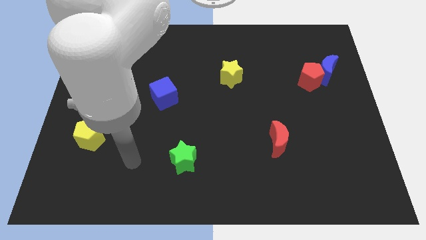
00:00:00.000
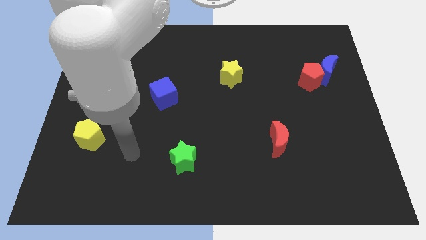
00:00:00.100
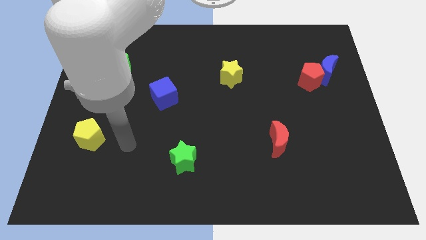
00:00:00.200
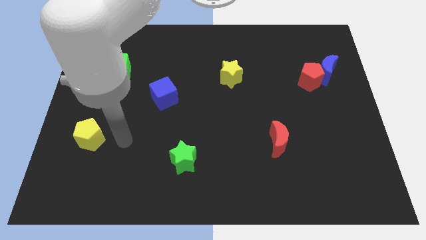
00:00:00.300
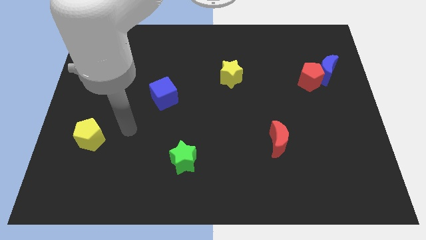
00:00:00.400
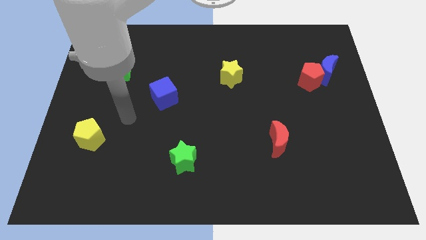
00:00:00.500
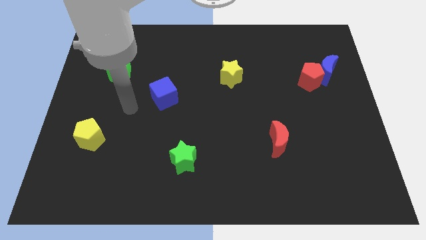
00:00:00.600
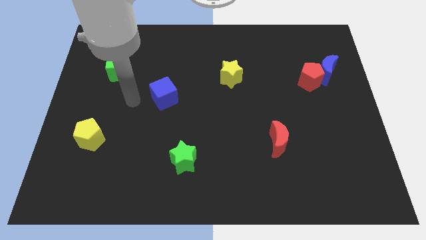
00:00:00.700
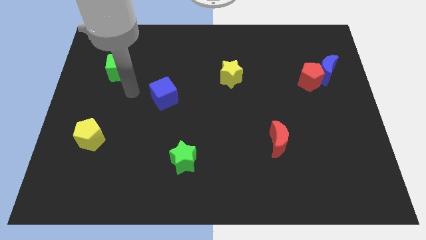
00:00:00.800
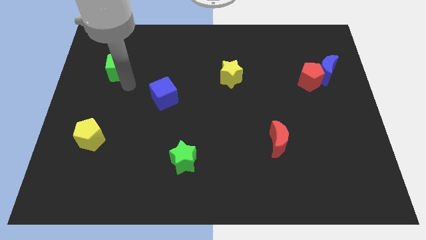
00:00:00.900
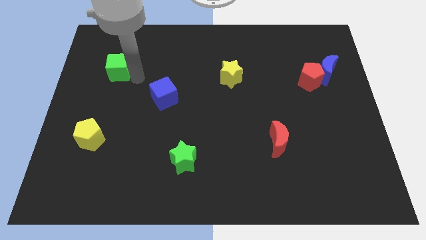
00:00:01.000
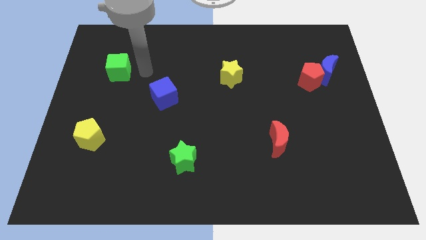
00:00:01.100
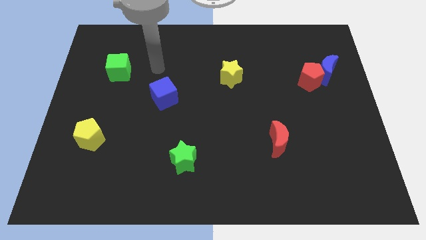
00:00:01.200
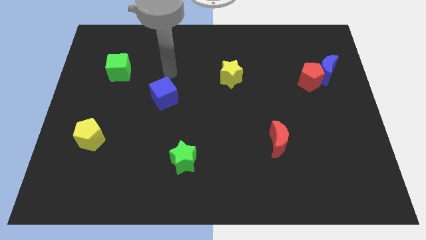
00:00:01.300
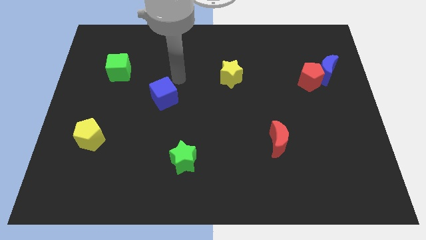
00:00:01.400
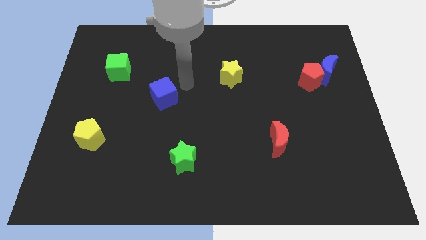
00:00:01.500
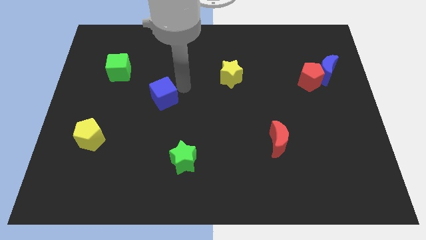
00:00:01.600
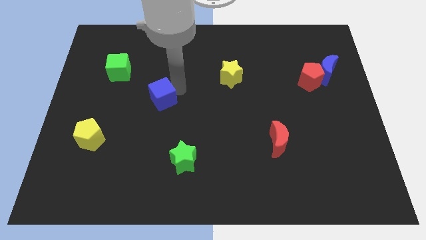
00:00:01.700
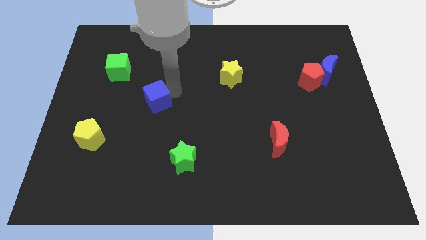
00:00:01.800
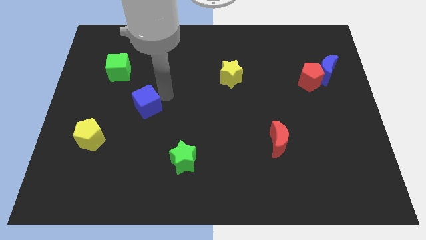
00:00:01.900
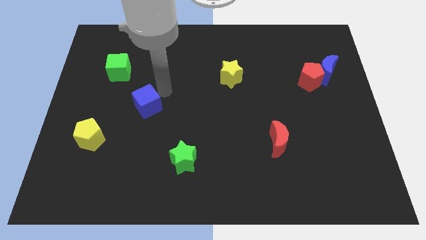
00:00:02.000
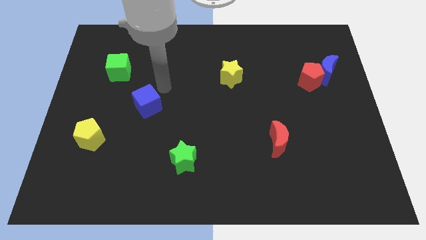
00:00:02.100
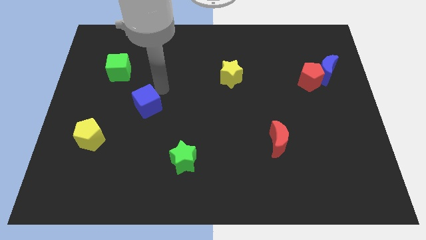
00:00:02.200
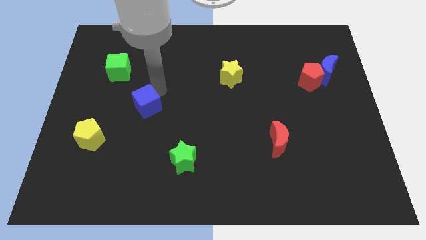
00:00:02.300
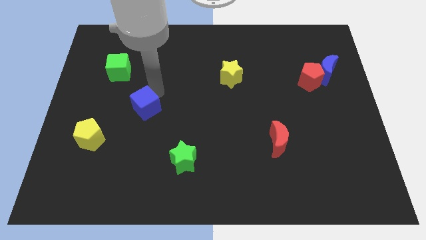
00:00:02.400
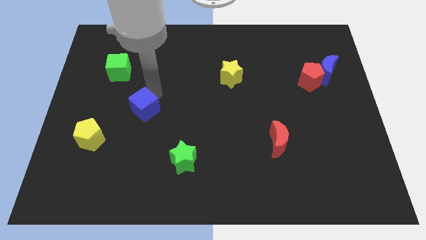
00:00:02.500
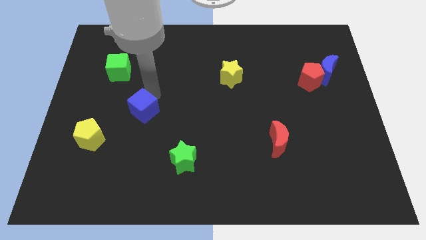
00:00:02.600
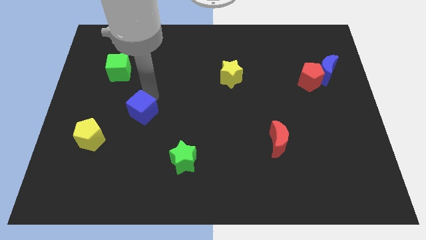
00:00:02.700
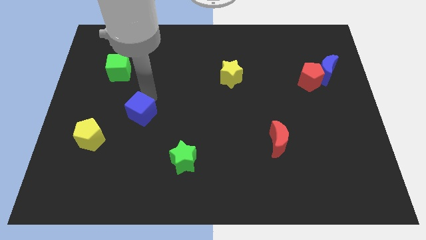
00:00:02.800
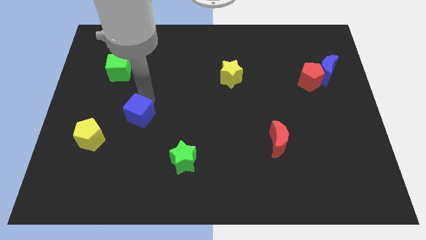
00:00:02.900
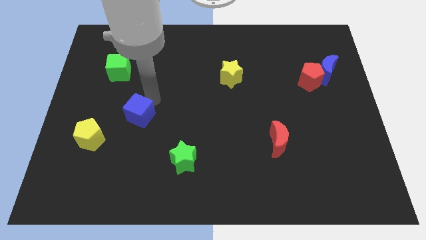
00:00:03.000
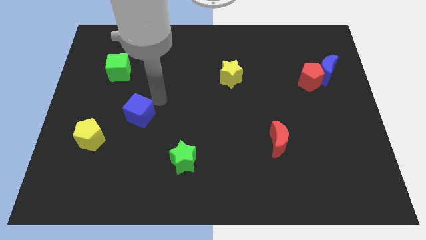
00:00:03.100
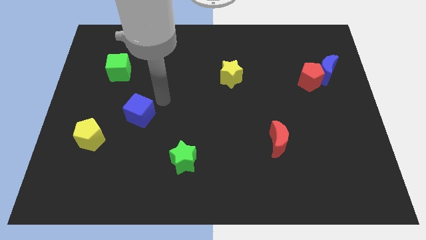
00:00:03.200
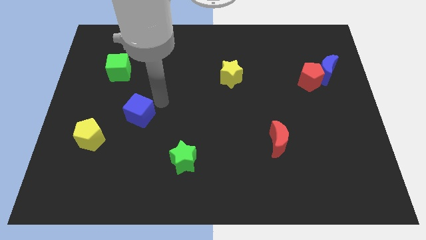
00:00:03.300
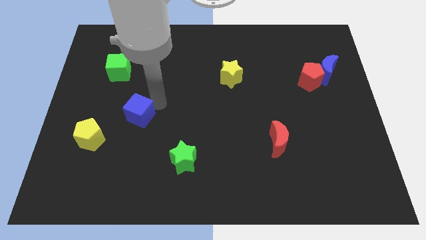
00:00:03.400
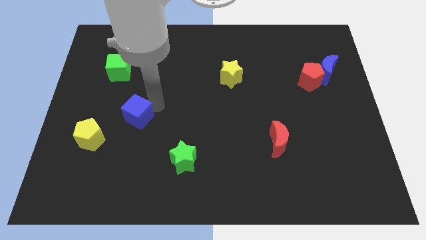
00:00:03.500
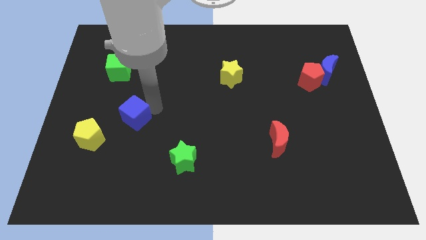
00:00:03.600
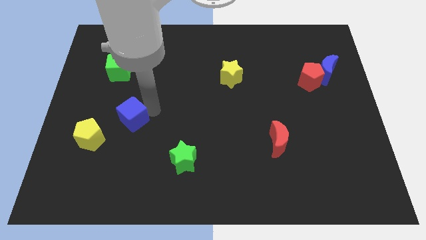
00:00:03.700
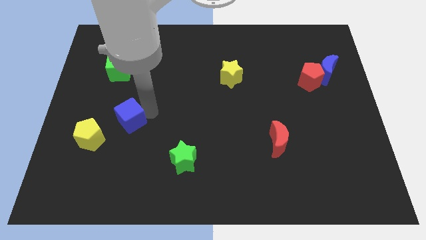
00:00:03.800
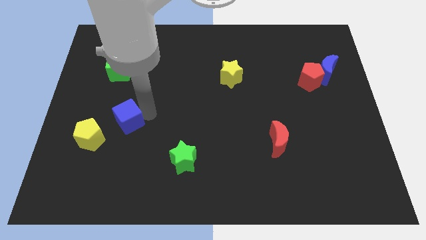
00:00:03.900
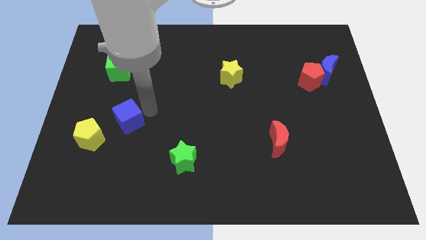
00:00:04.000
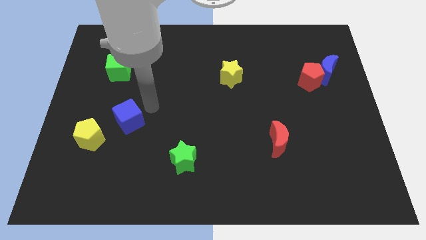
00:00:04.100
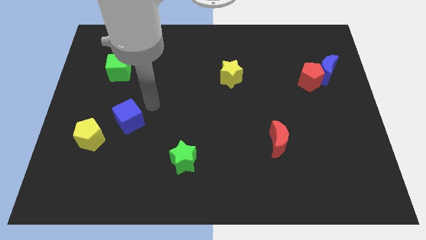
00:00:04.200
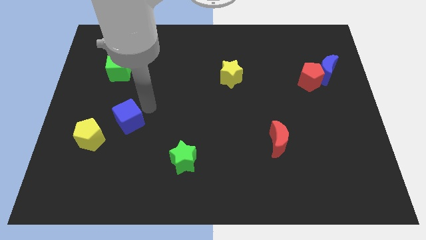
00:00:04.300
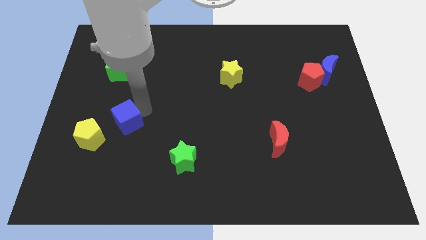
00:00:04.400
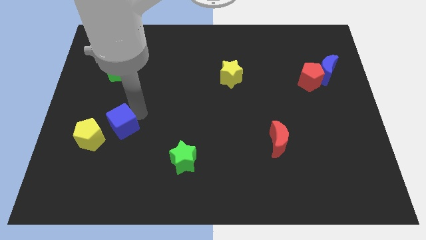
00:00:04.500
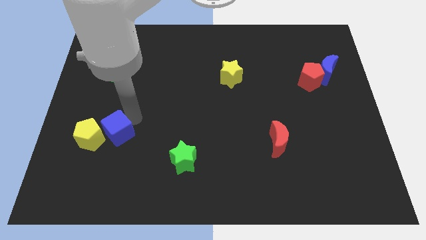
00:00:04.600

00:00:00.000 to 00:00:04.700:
put the blue cube towards the yellow pentagon

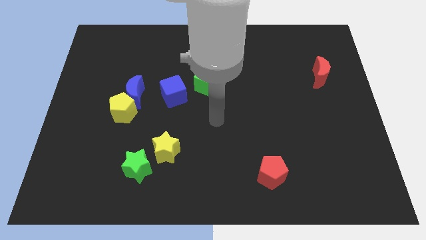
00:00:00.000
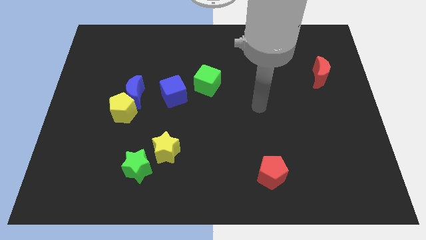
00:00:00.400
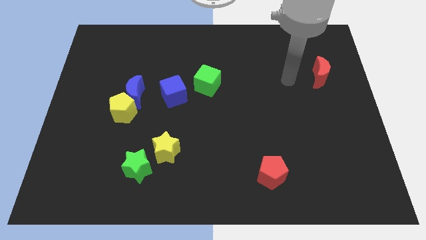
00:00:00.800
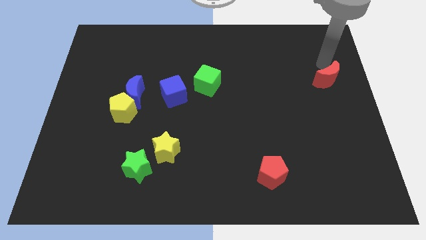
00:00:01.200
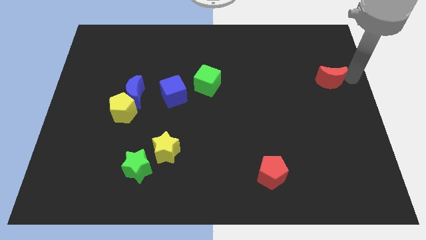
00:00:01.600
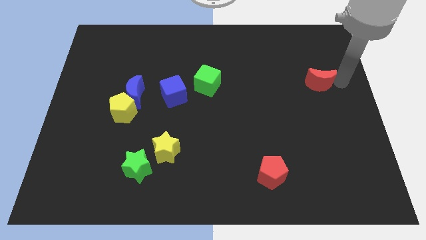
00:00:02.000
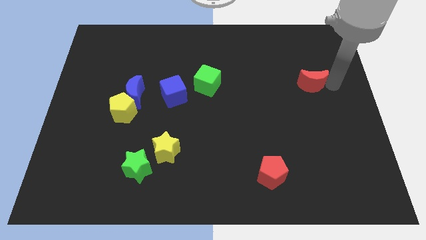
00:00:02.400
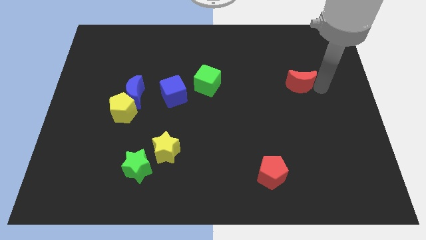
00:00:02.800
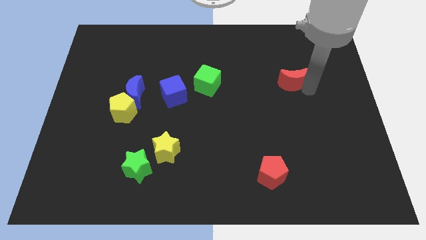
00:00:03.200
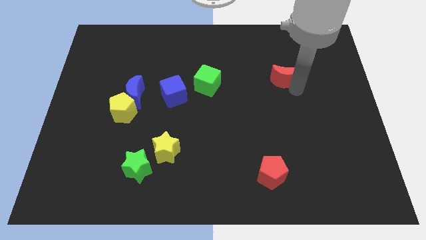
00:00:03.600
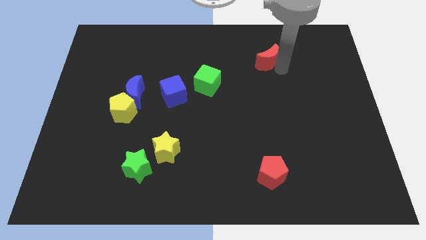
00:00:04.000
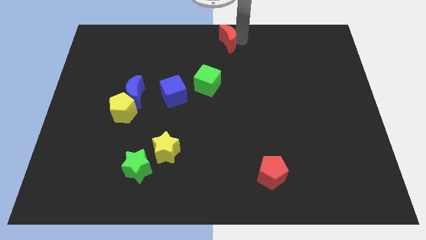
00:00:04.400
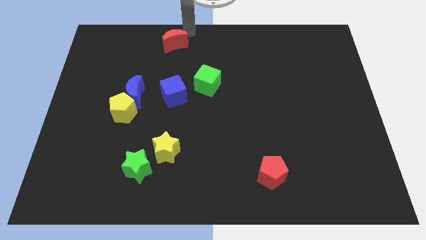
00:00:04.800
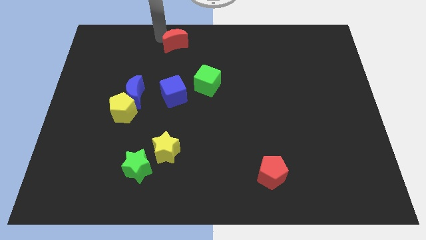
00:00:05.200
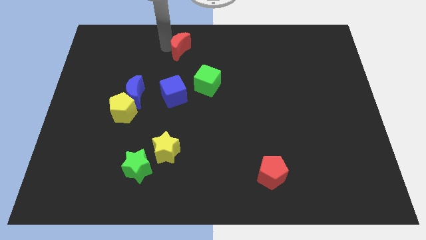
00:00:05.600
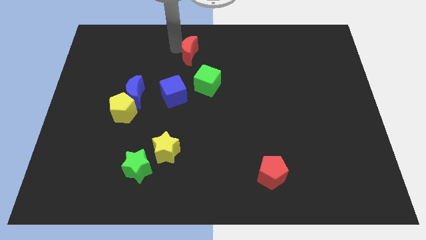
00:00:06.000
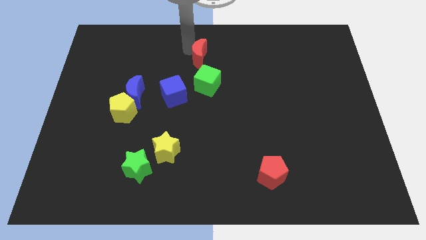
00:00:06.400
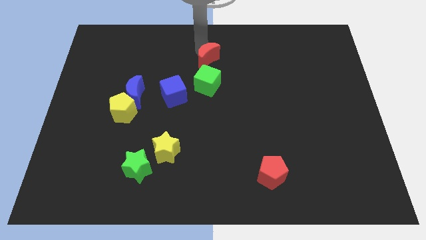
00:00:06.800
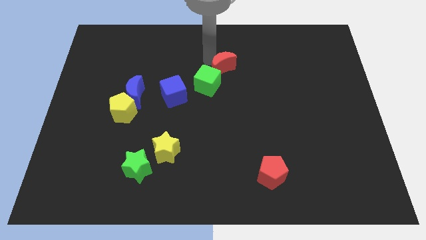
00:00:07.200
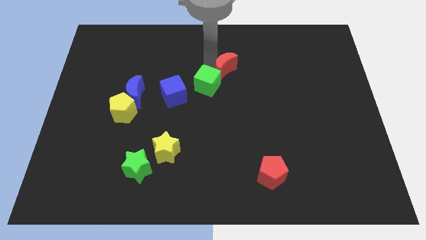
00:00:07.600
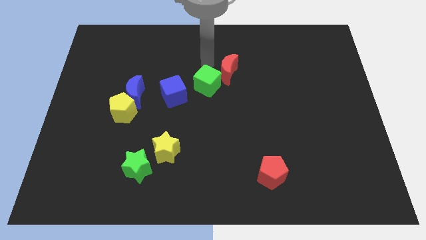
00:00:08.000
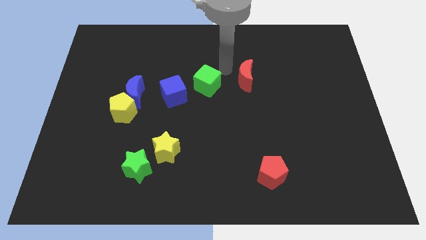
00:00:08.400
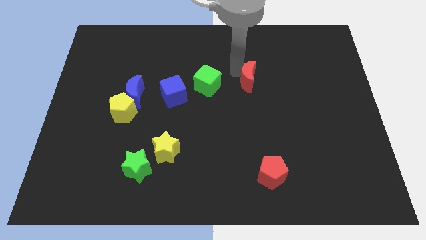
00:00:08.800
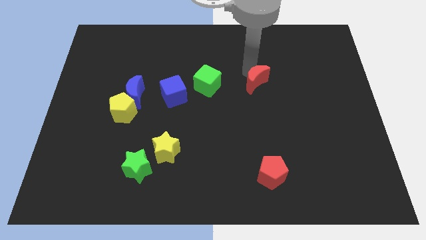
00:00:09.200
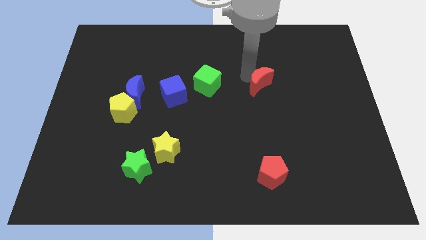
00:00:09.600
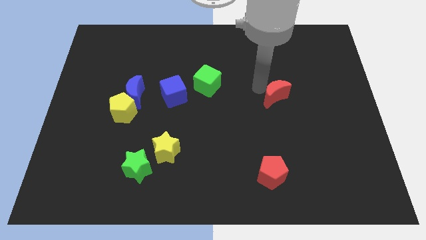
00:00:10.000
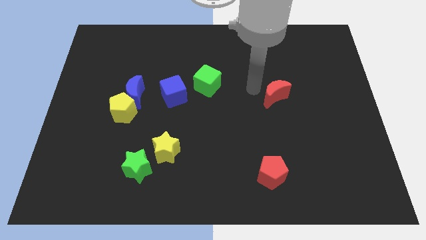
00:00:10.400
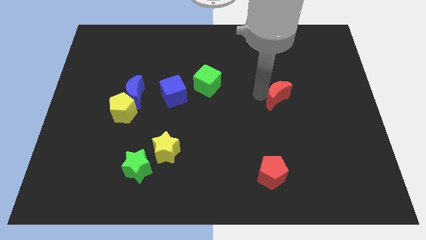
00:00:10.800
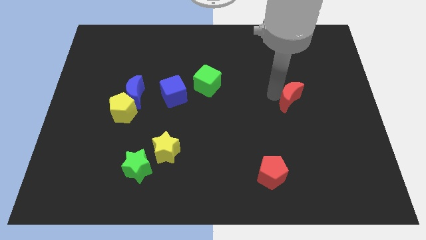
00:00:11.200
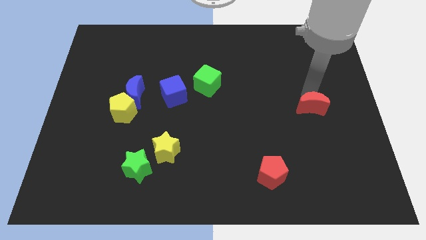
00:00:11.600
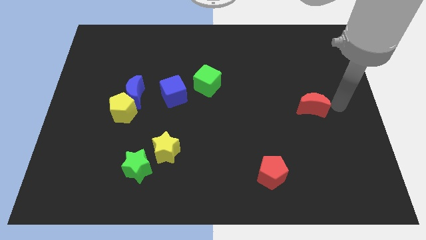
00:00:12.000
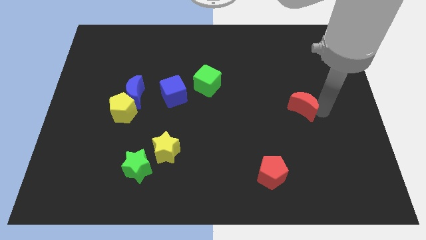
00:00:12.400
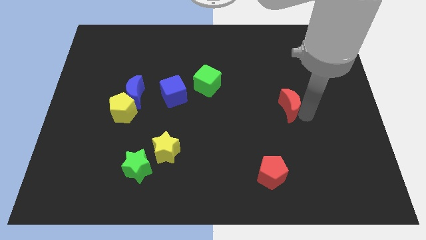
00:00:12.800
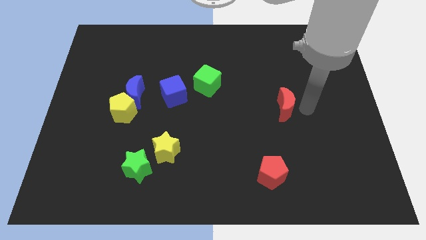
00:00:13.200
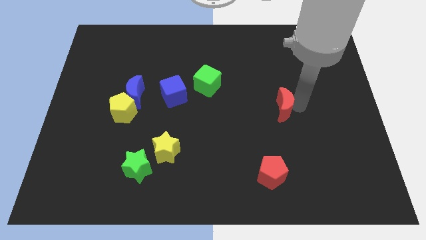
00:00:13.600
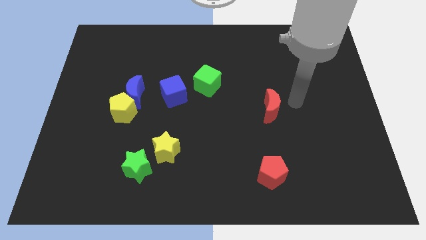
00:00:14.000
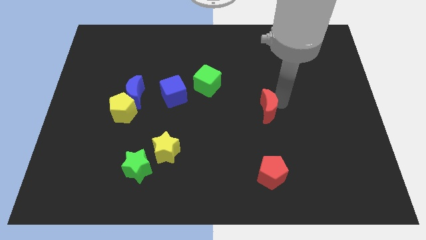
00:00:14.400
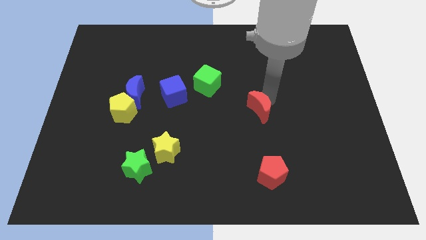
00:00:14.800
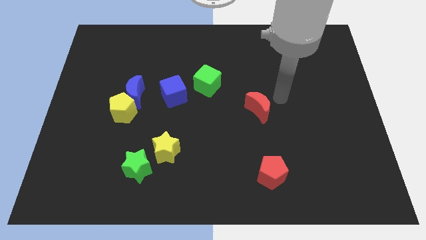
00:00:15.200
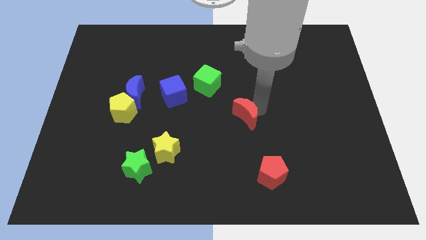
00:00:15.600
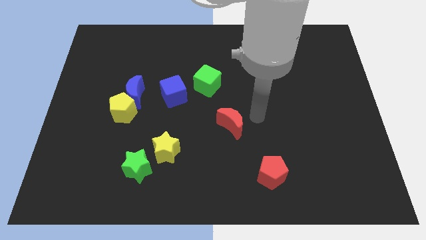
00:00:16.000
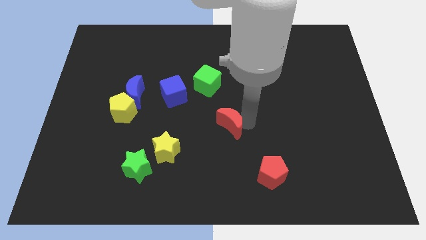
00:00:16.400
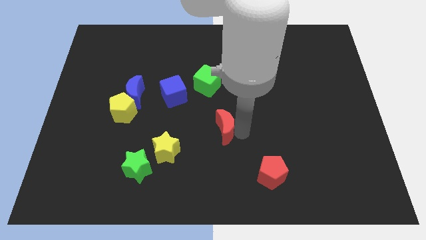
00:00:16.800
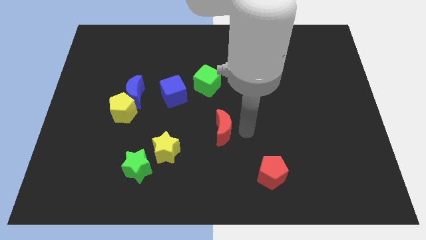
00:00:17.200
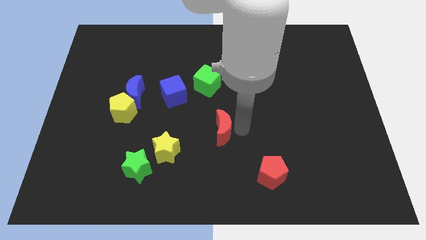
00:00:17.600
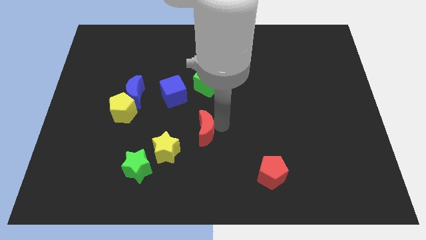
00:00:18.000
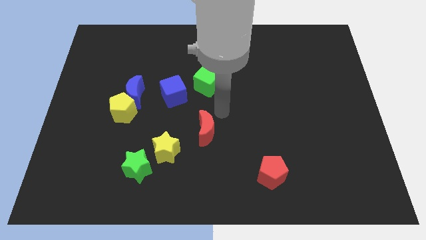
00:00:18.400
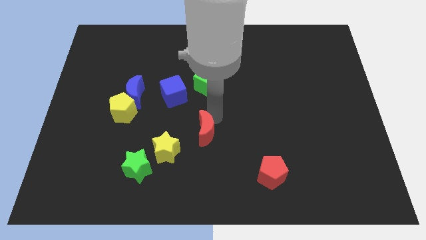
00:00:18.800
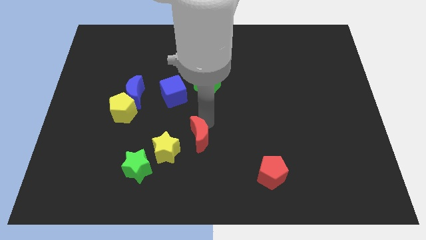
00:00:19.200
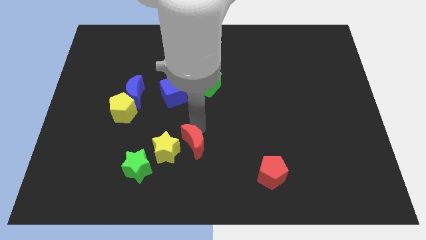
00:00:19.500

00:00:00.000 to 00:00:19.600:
push the red moon towards the yellow star
